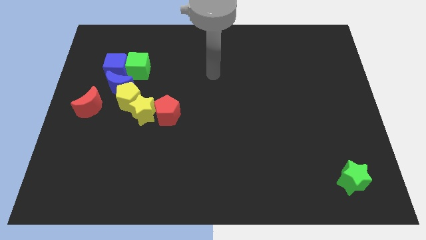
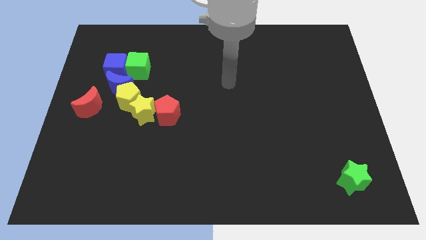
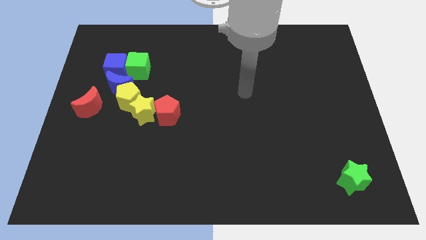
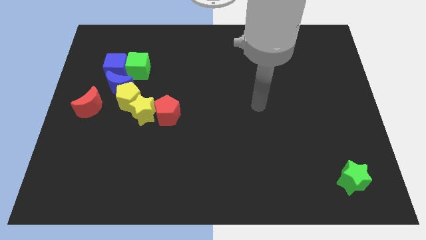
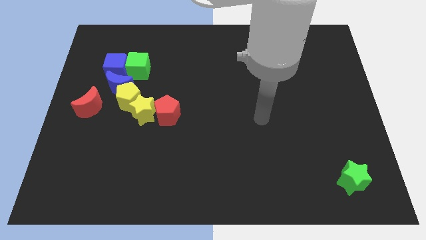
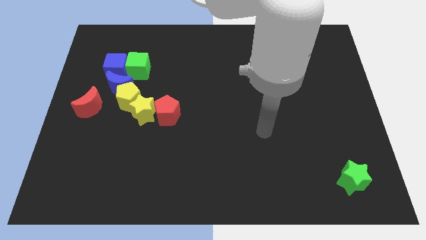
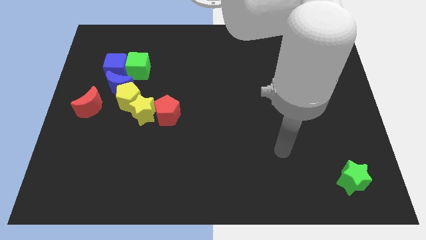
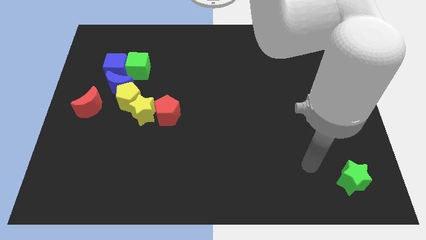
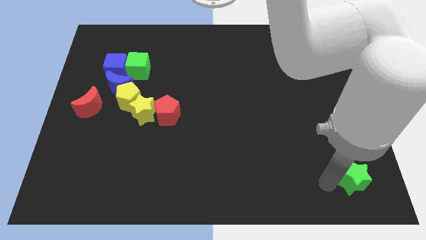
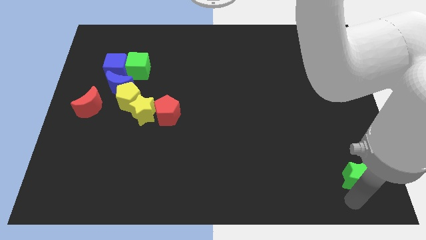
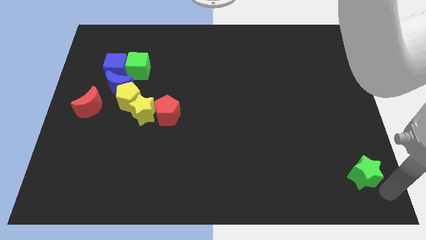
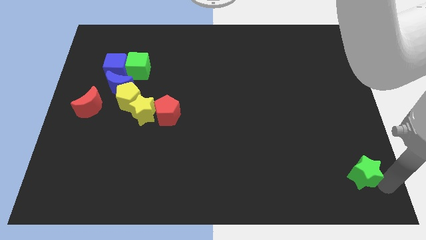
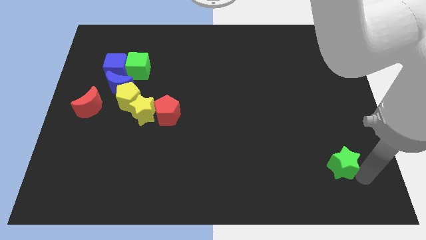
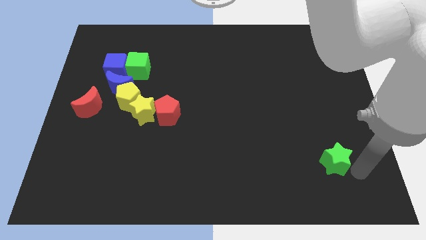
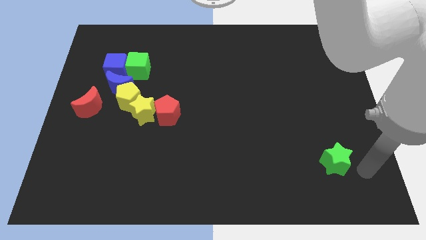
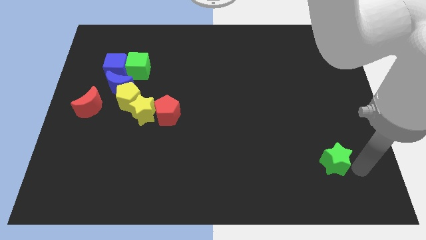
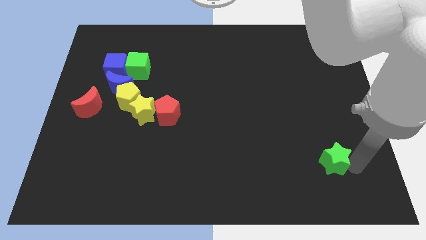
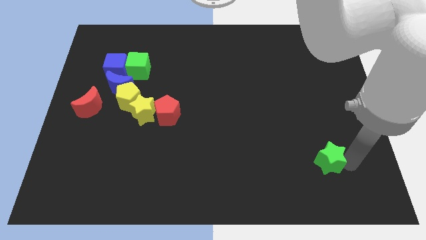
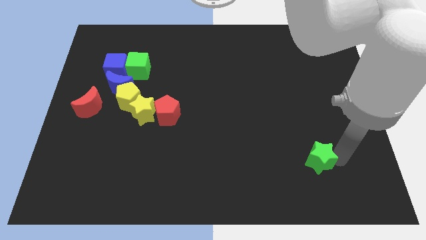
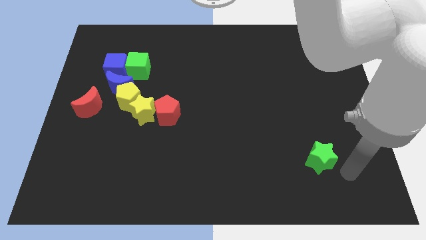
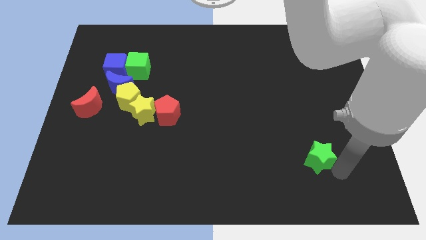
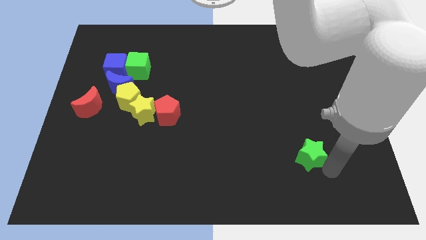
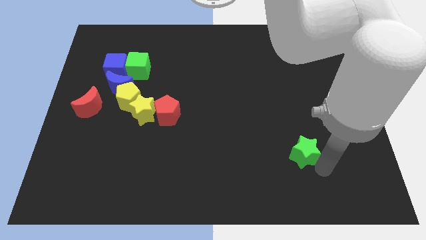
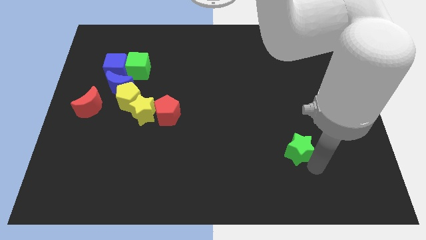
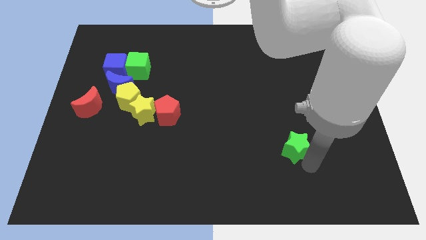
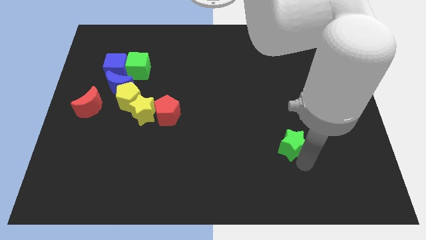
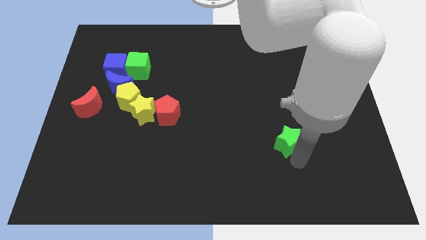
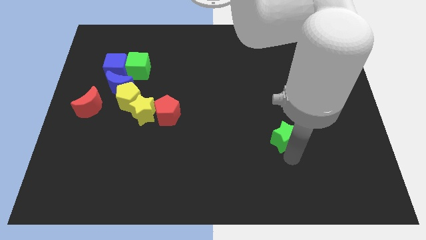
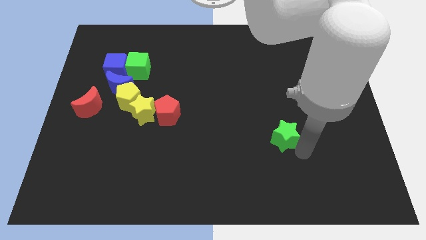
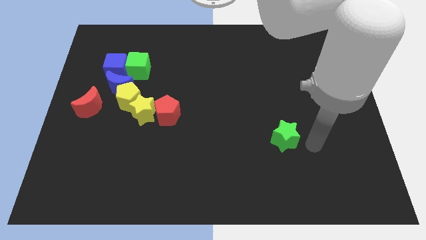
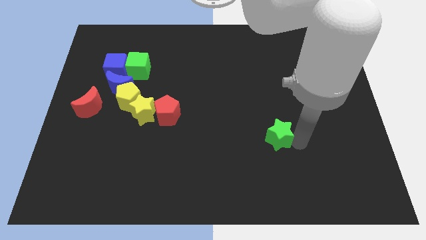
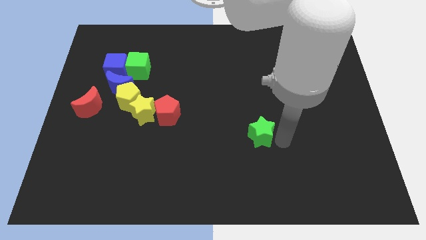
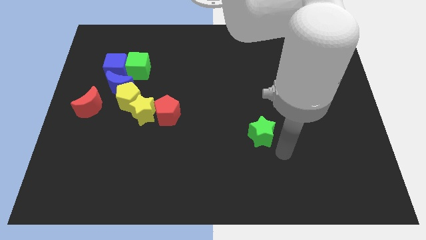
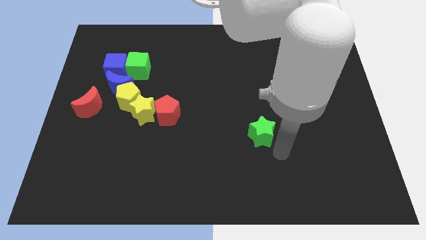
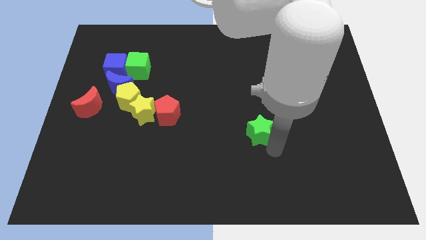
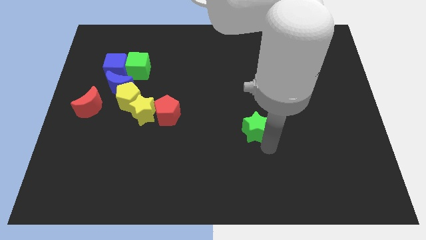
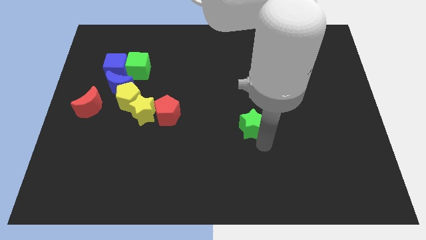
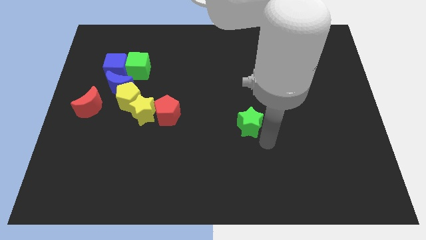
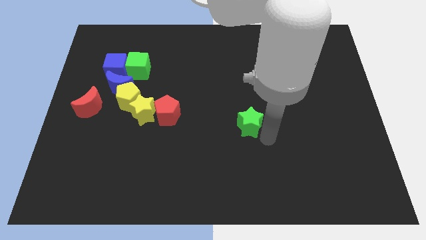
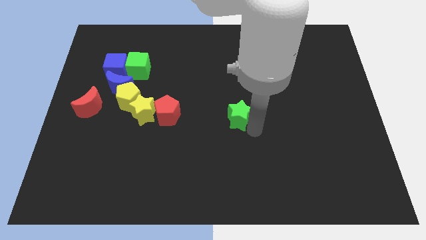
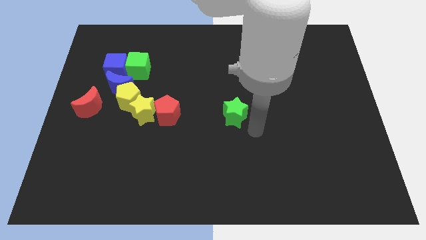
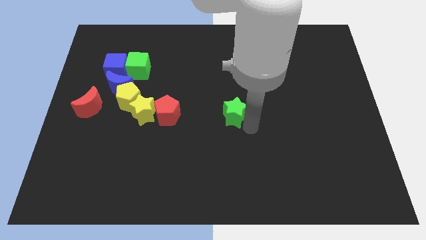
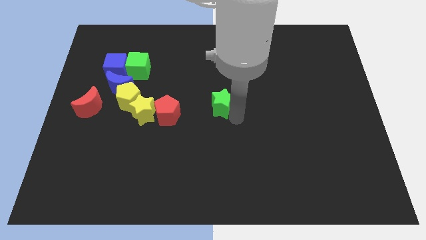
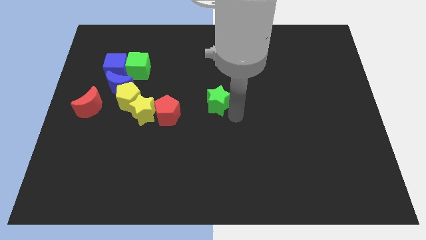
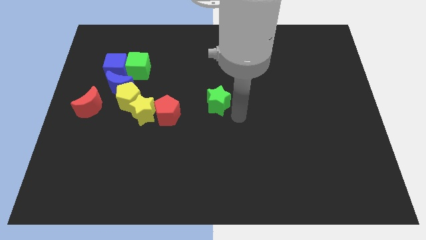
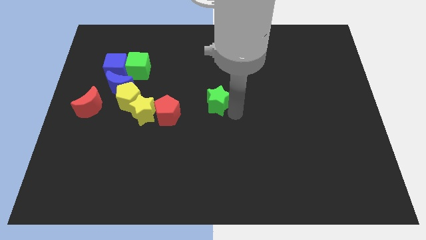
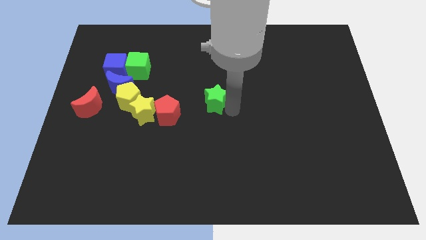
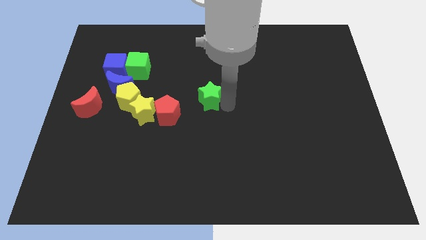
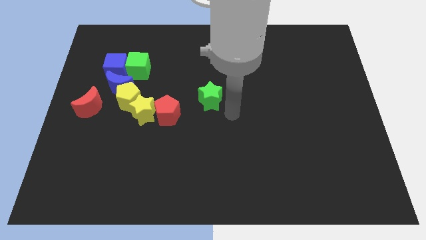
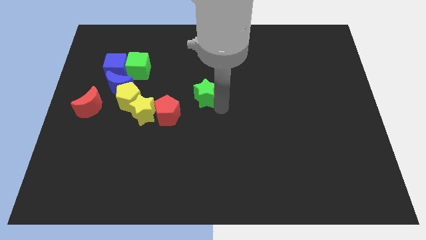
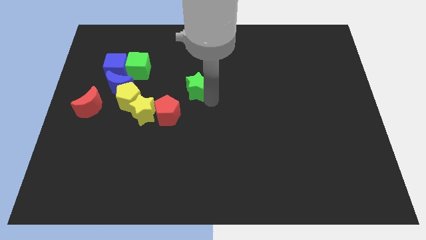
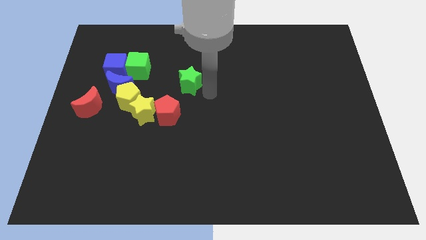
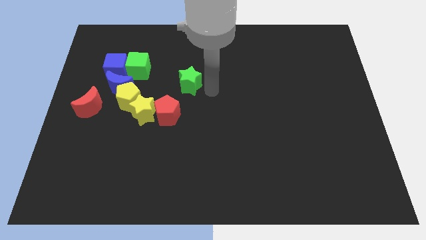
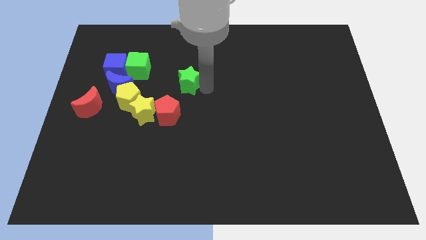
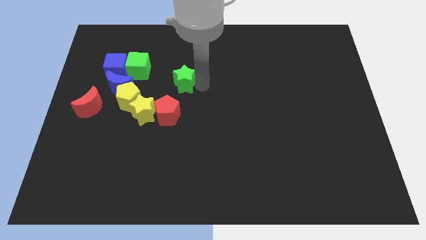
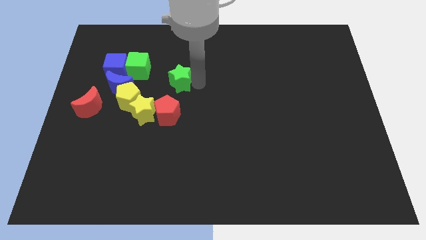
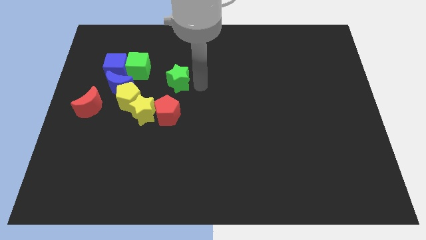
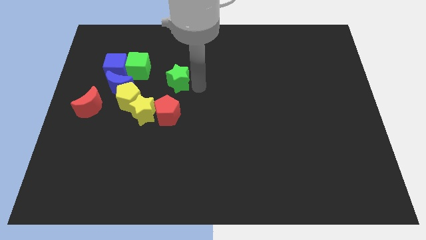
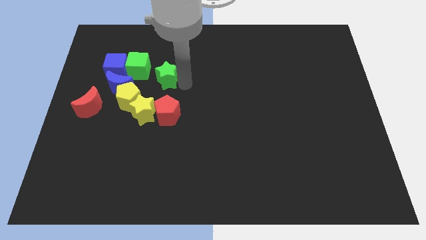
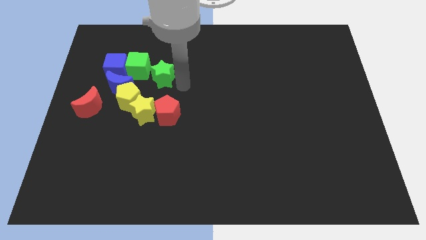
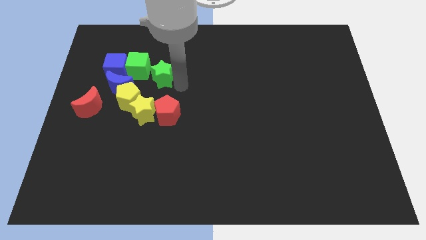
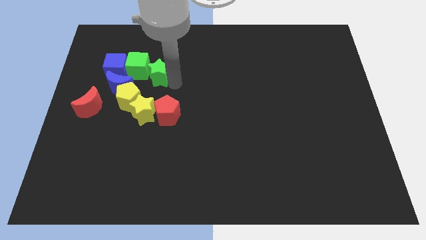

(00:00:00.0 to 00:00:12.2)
push the green star next to the green cube

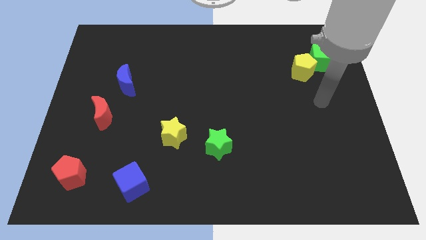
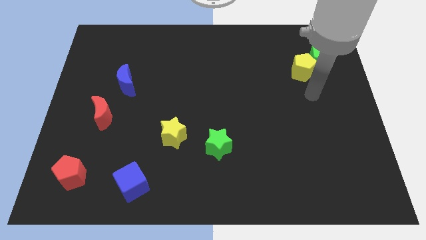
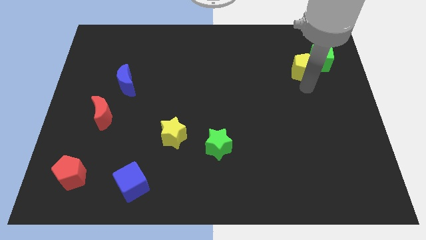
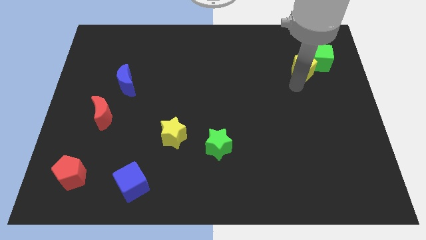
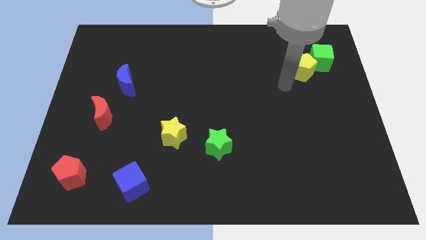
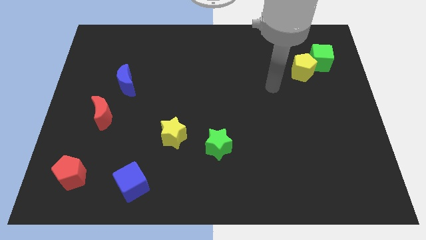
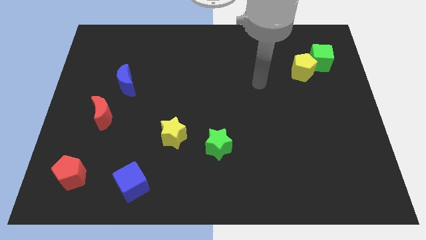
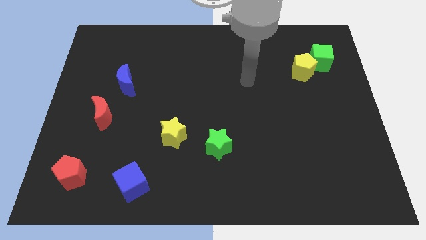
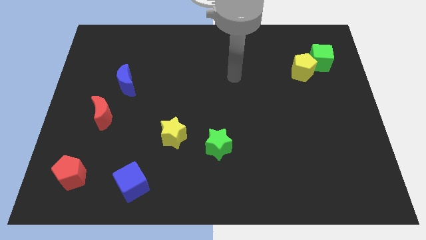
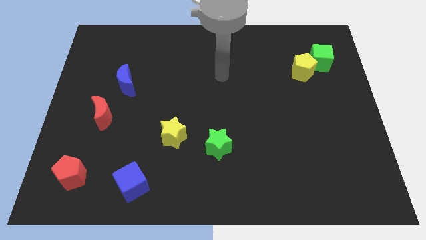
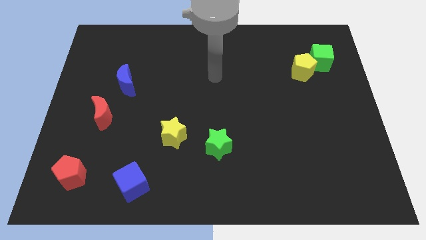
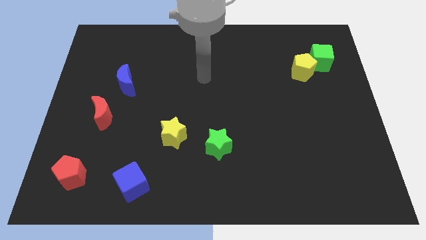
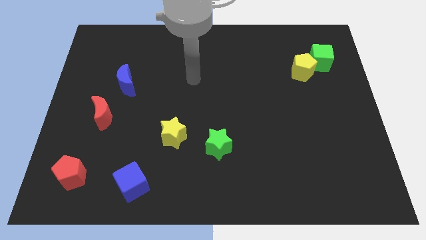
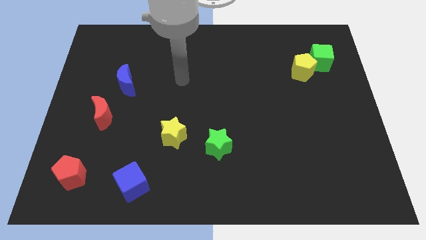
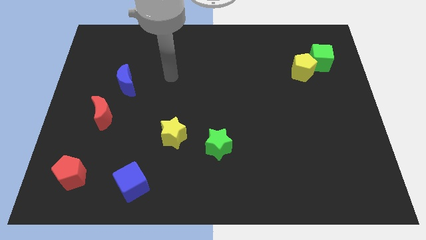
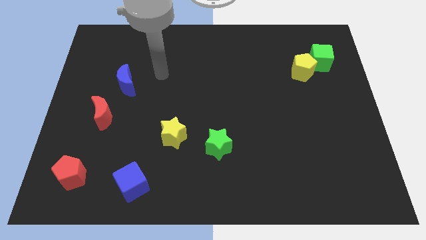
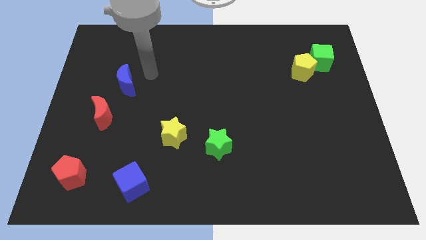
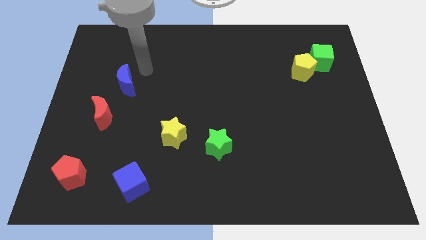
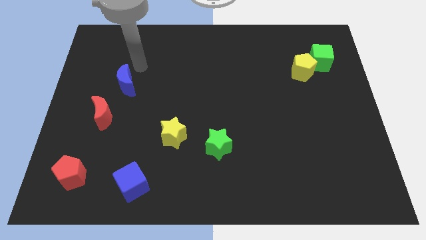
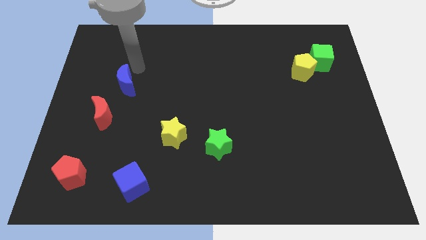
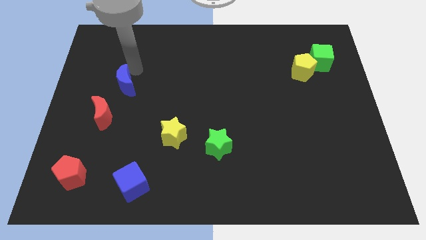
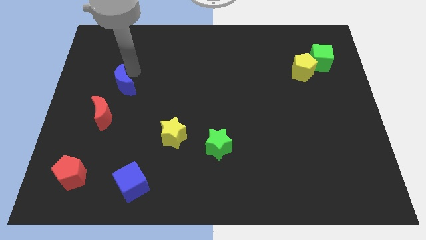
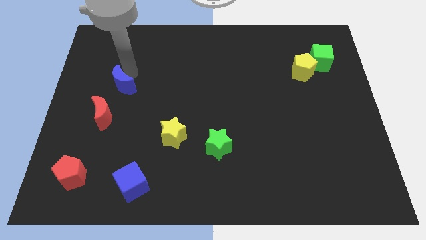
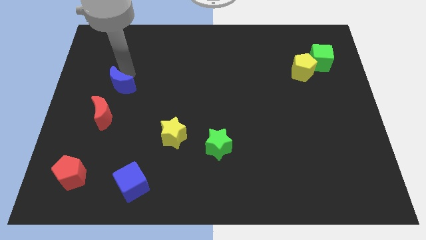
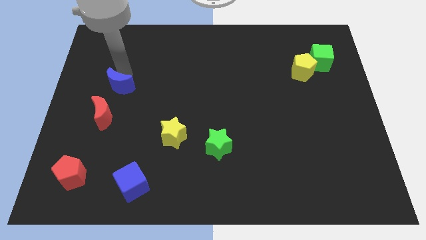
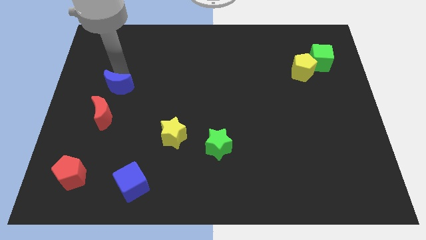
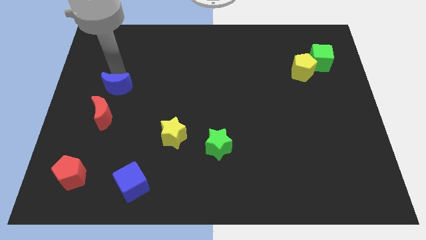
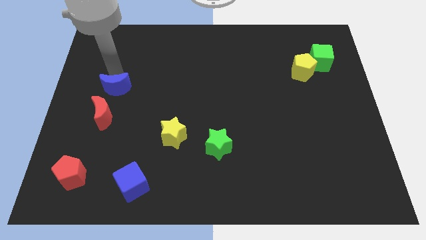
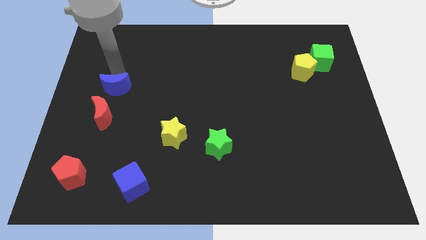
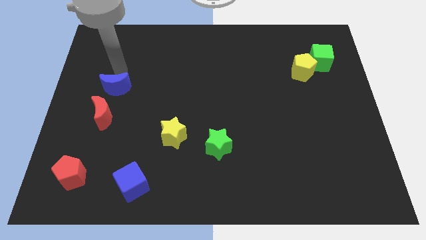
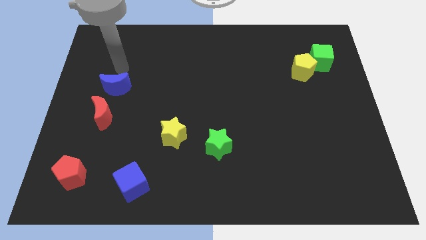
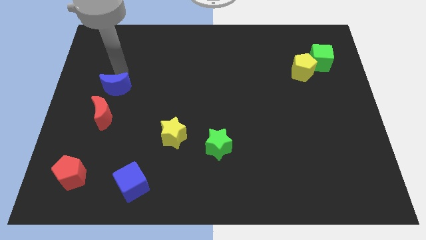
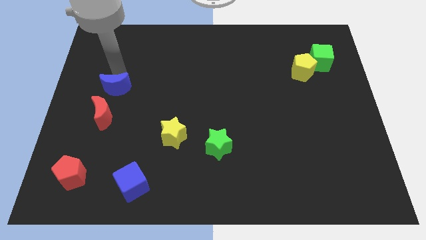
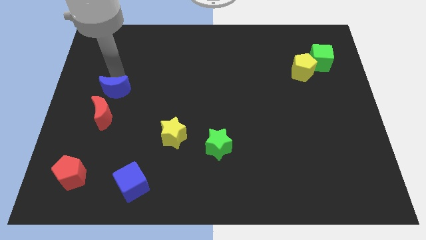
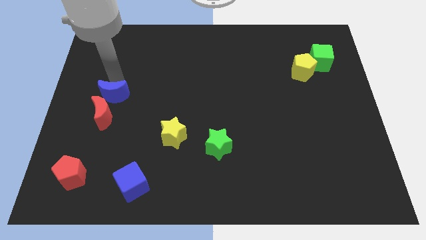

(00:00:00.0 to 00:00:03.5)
push the blue moon to the red moon
